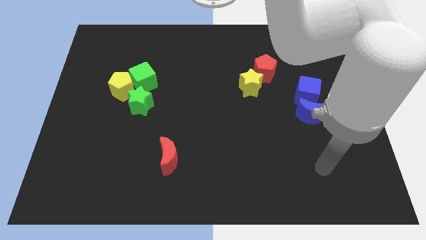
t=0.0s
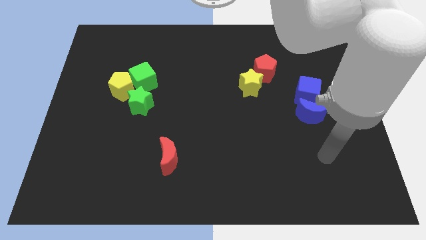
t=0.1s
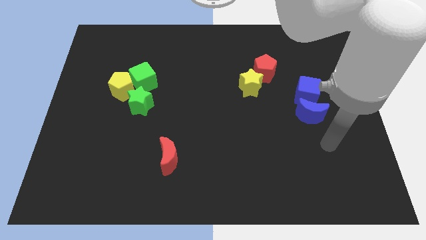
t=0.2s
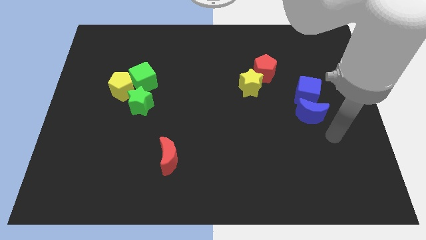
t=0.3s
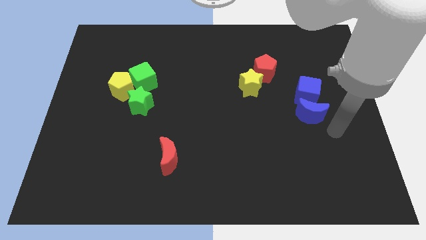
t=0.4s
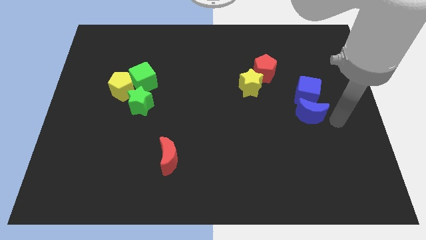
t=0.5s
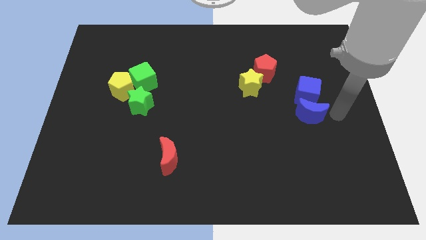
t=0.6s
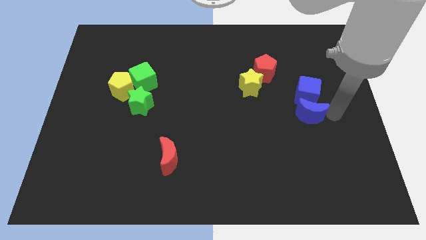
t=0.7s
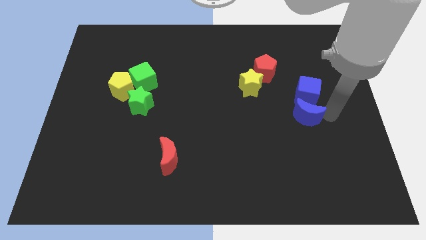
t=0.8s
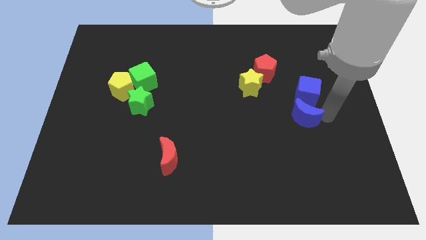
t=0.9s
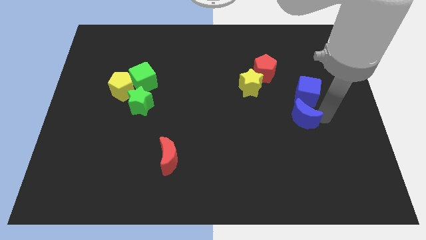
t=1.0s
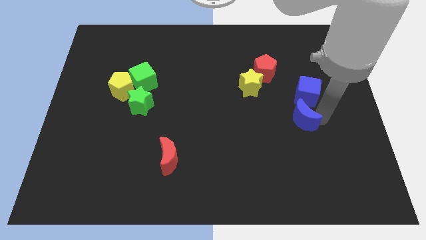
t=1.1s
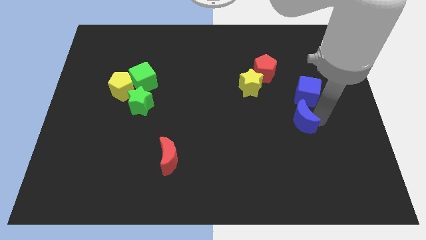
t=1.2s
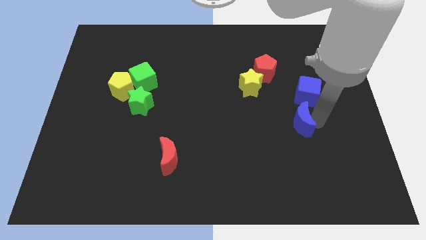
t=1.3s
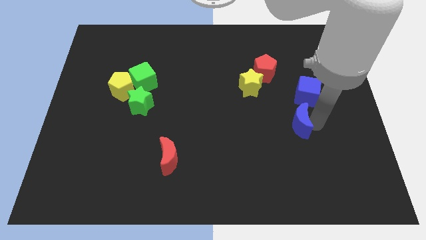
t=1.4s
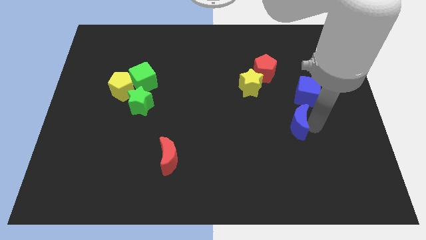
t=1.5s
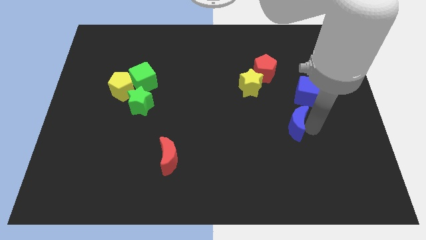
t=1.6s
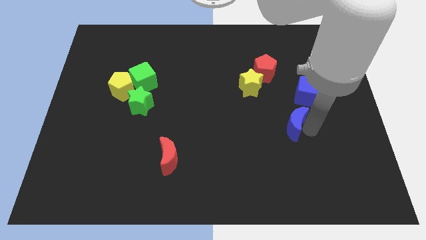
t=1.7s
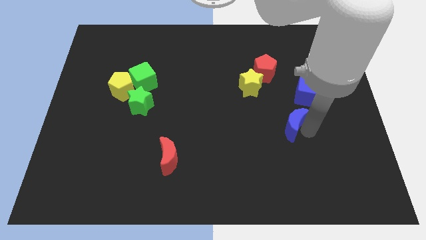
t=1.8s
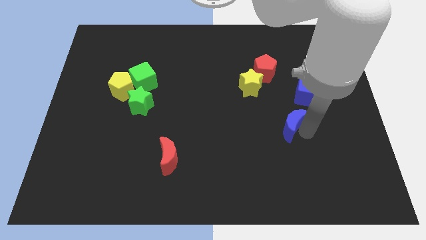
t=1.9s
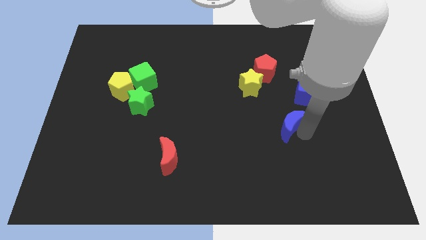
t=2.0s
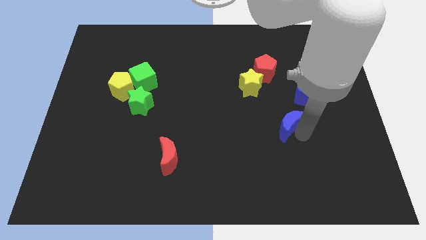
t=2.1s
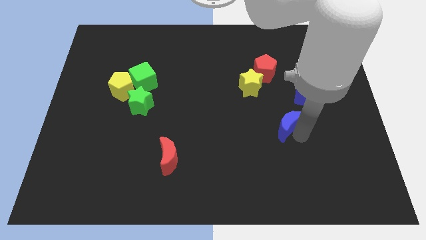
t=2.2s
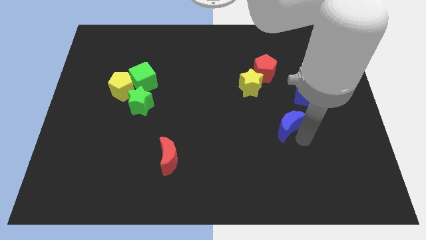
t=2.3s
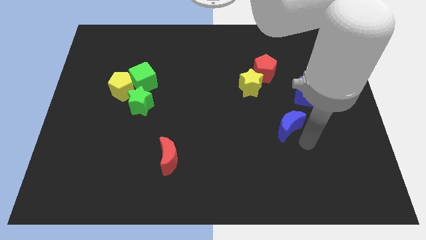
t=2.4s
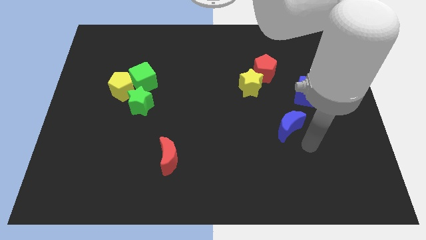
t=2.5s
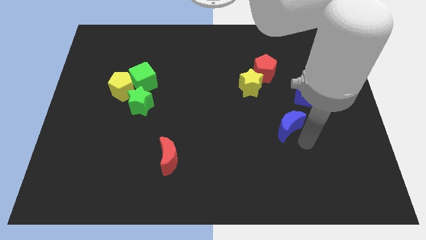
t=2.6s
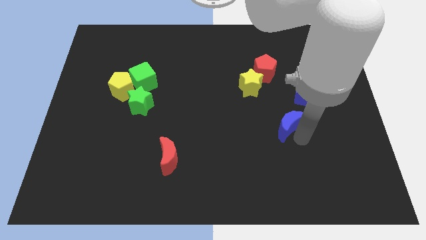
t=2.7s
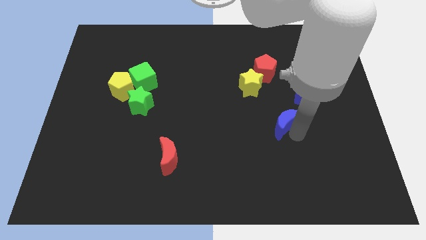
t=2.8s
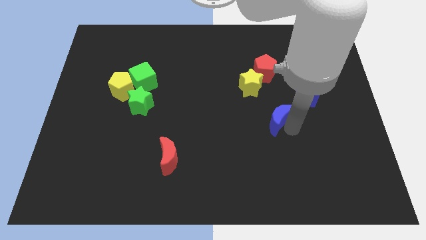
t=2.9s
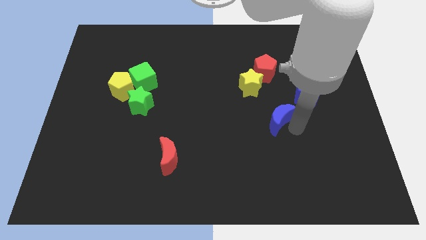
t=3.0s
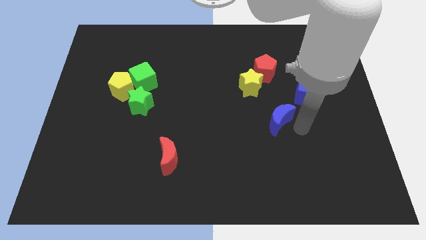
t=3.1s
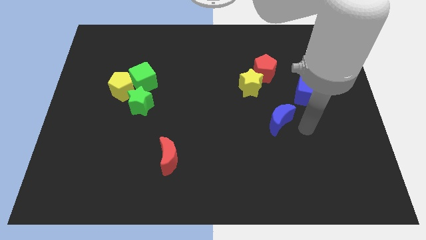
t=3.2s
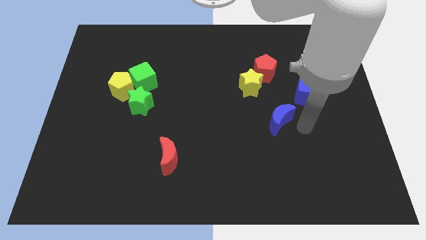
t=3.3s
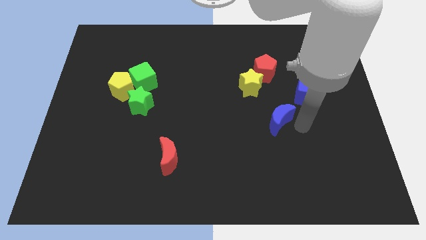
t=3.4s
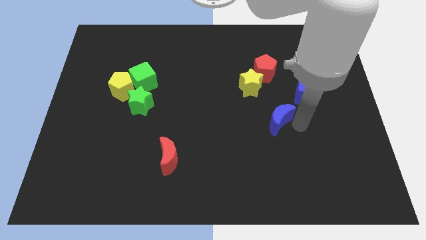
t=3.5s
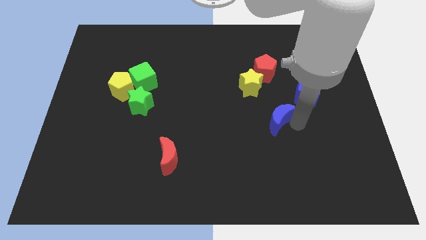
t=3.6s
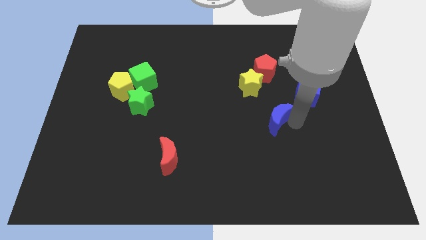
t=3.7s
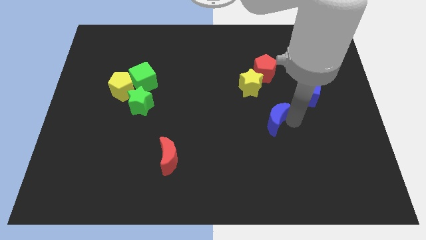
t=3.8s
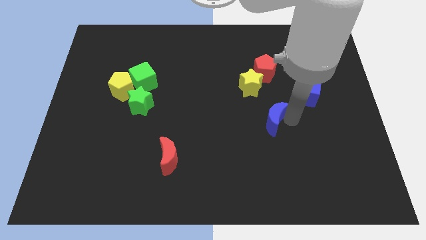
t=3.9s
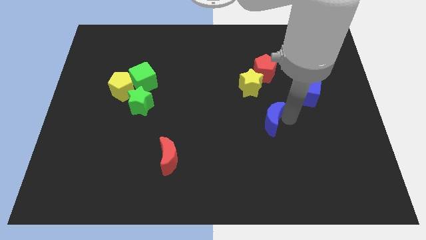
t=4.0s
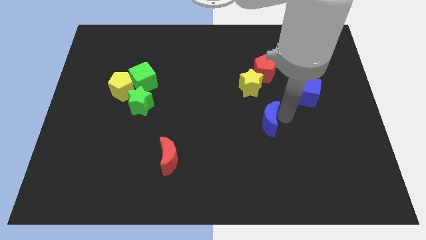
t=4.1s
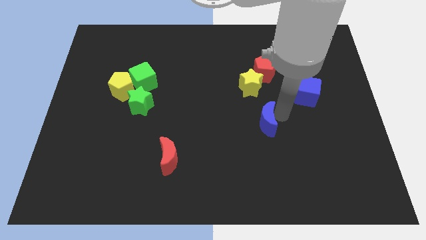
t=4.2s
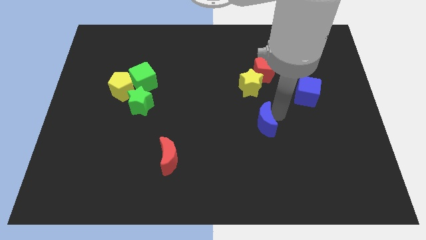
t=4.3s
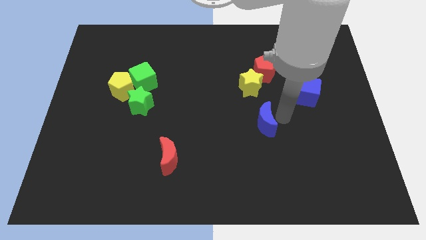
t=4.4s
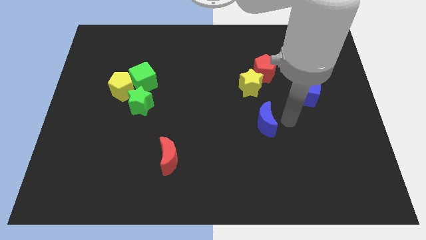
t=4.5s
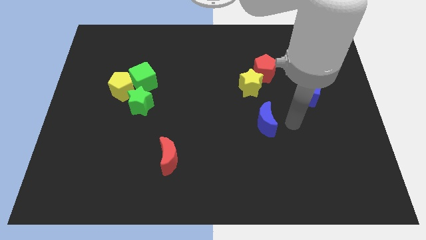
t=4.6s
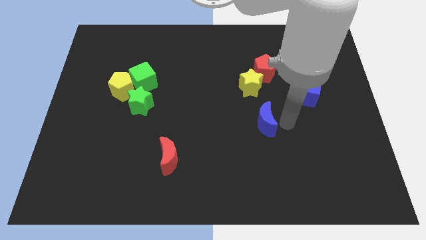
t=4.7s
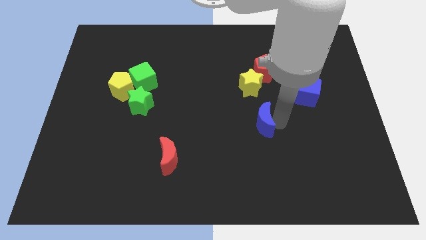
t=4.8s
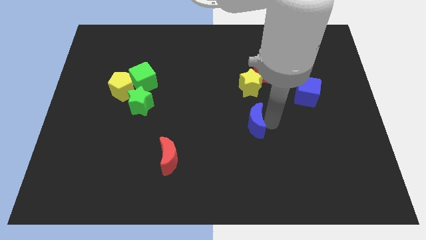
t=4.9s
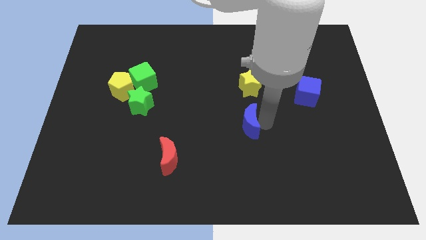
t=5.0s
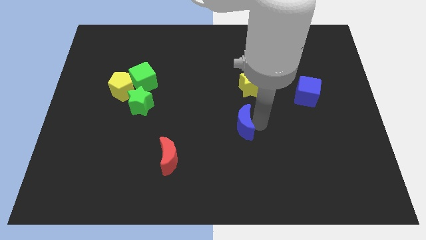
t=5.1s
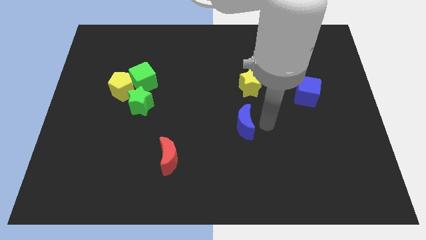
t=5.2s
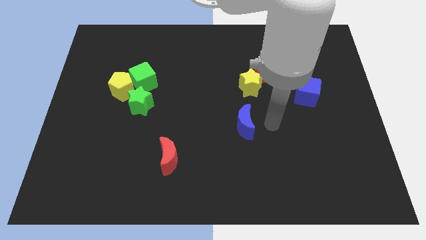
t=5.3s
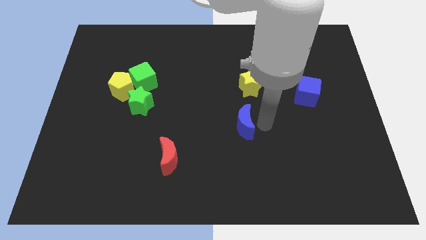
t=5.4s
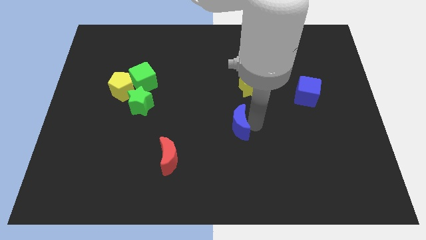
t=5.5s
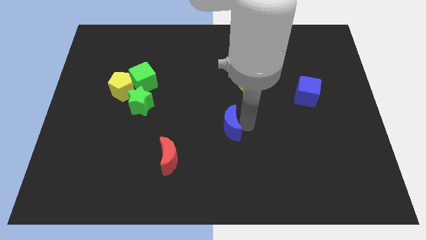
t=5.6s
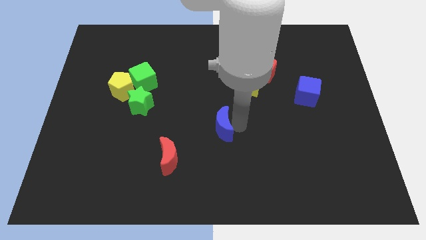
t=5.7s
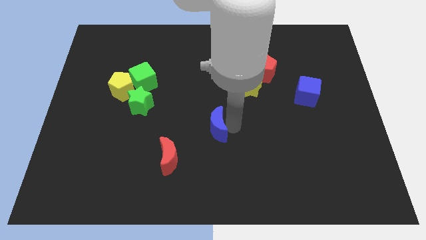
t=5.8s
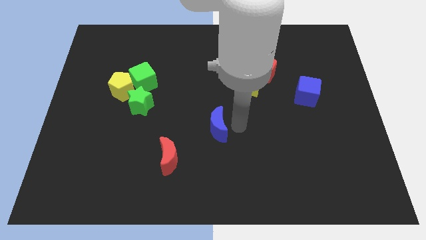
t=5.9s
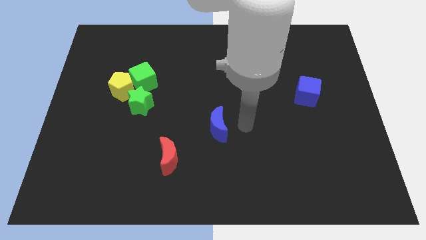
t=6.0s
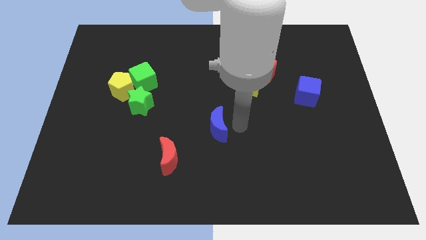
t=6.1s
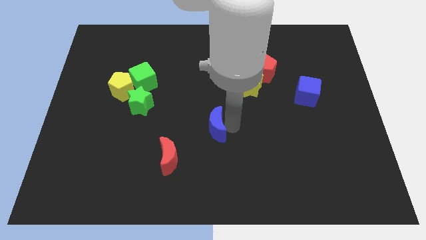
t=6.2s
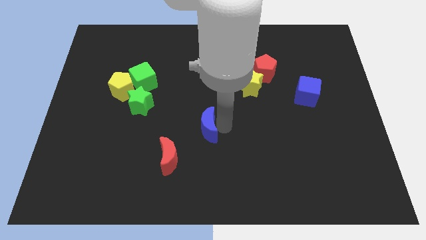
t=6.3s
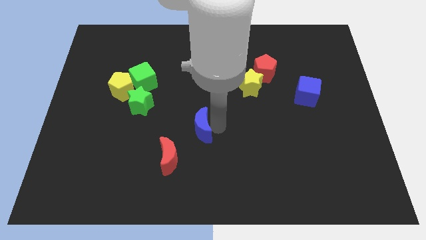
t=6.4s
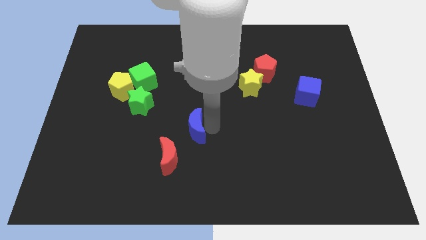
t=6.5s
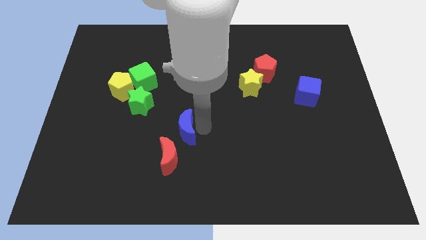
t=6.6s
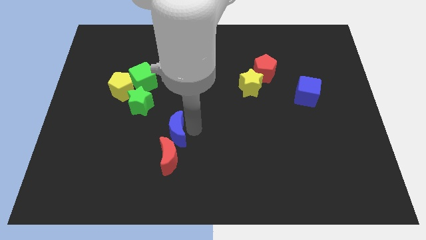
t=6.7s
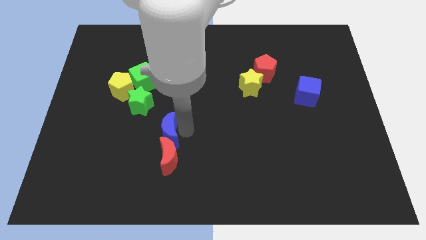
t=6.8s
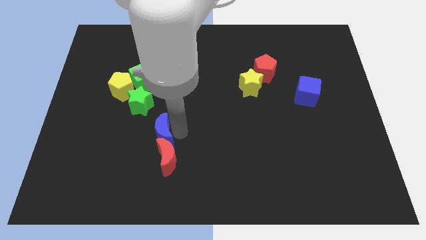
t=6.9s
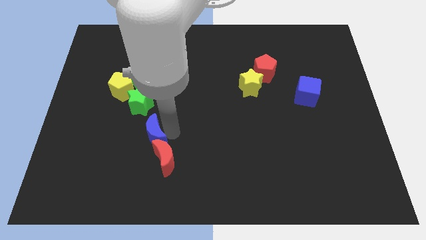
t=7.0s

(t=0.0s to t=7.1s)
slide the blue moon below the green star

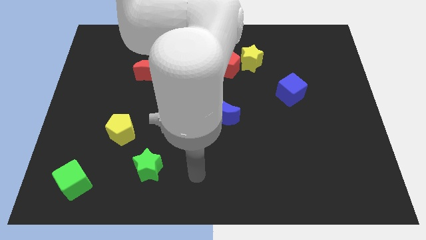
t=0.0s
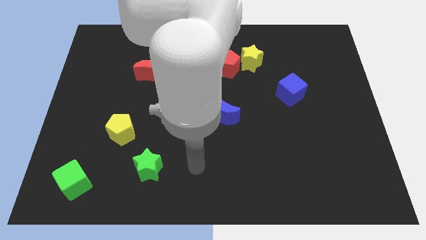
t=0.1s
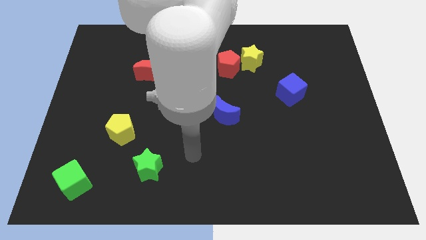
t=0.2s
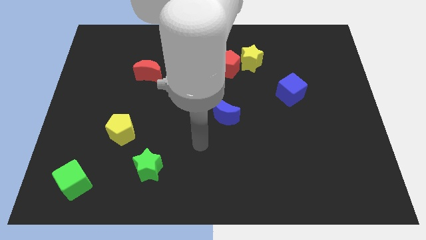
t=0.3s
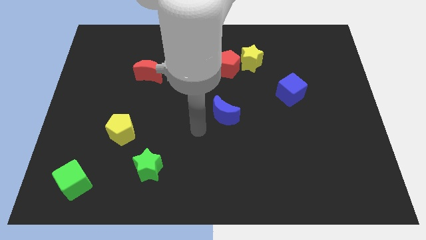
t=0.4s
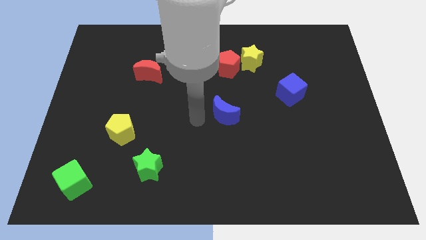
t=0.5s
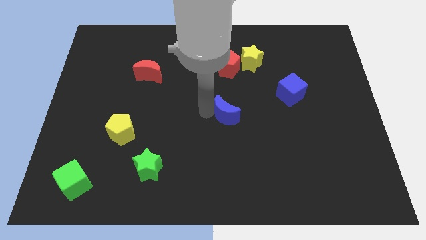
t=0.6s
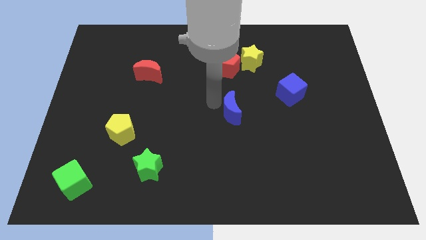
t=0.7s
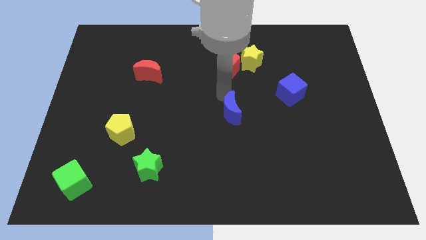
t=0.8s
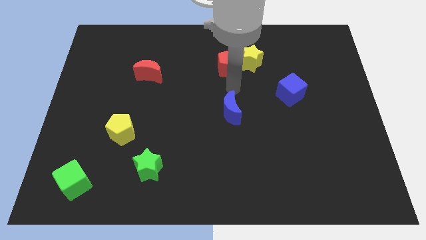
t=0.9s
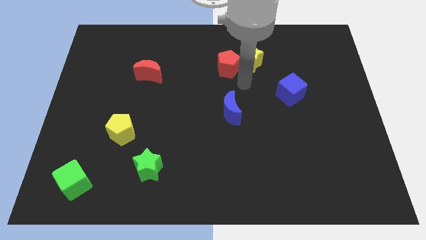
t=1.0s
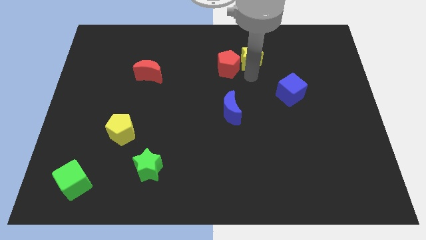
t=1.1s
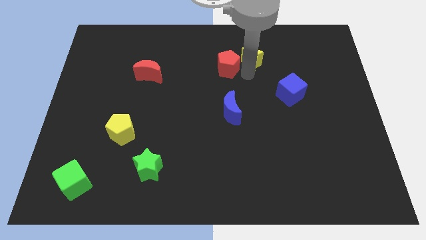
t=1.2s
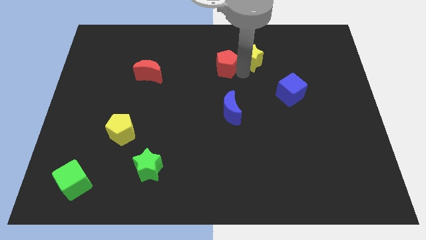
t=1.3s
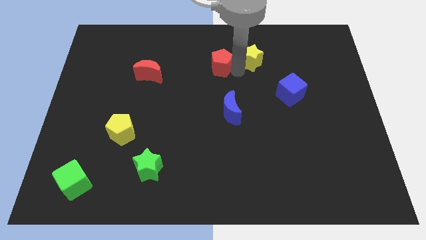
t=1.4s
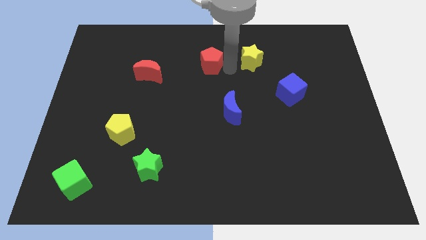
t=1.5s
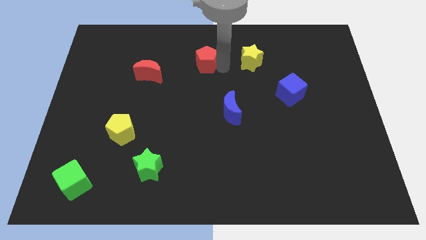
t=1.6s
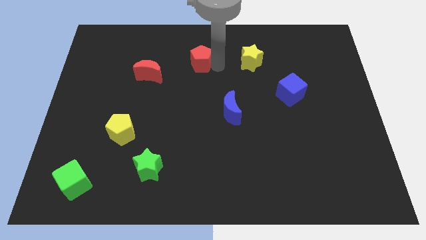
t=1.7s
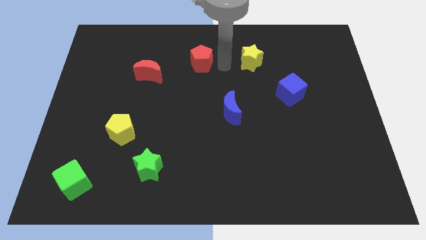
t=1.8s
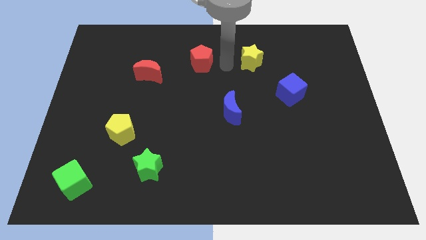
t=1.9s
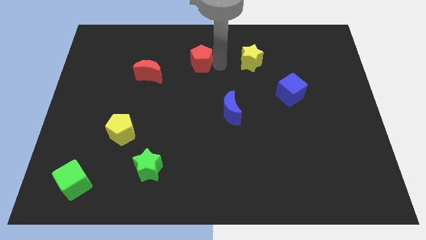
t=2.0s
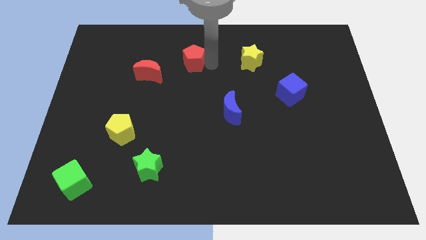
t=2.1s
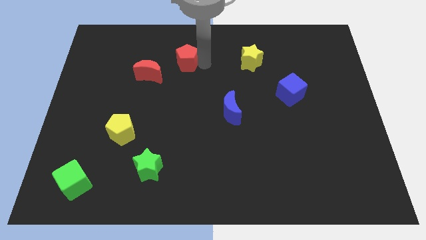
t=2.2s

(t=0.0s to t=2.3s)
slide the red pentagon diagonally up and to the right of the red moon
